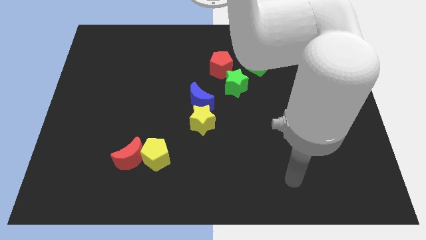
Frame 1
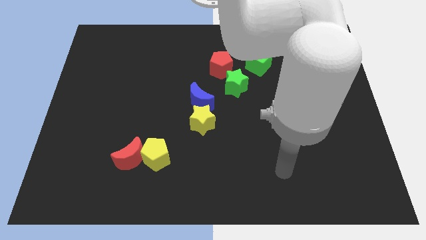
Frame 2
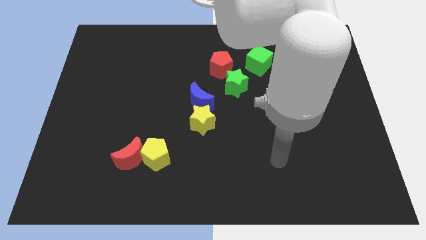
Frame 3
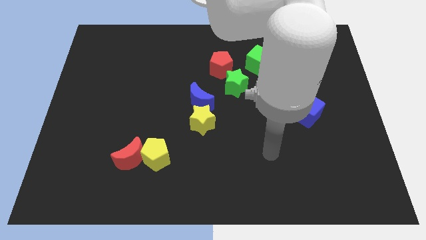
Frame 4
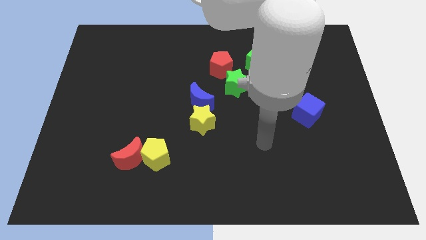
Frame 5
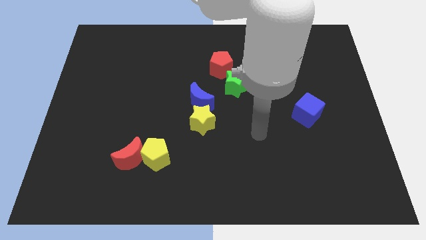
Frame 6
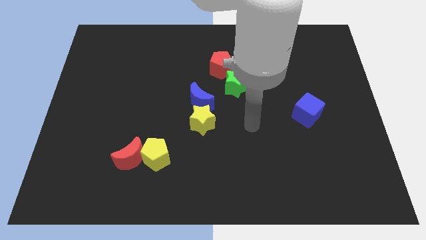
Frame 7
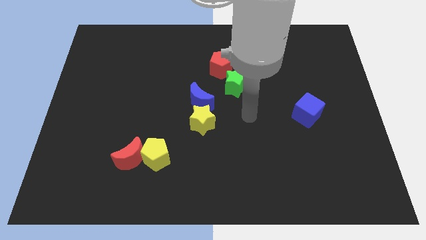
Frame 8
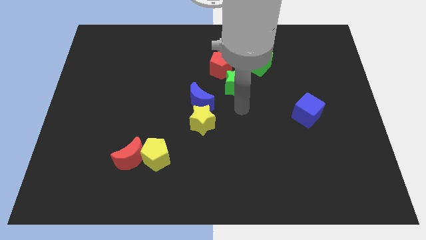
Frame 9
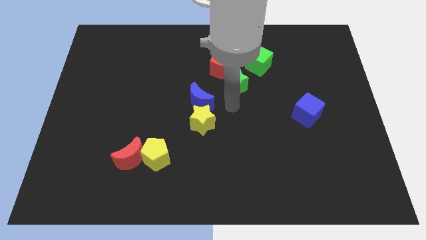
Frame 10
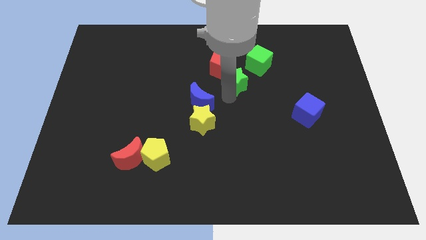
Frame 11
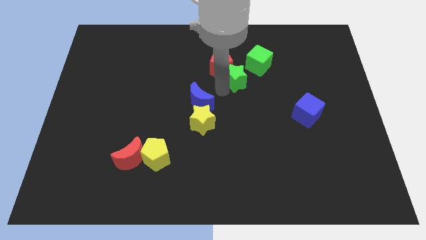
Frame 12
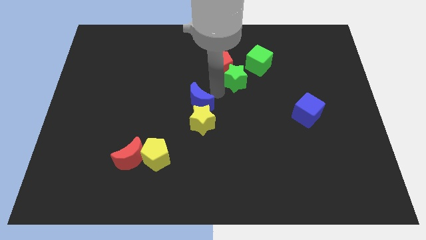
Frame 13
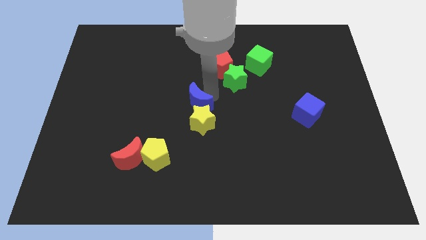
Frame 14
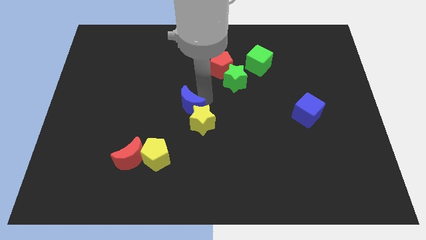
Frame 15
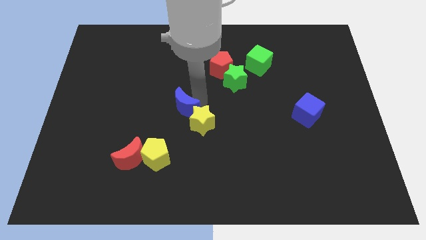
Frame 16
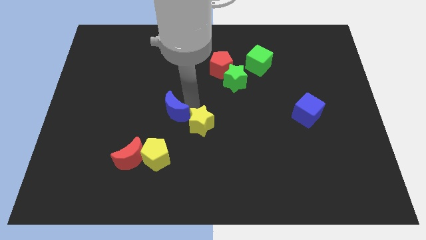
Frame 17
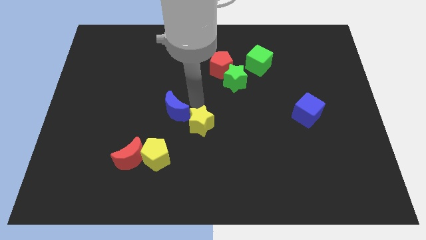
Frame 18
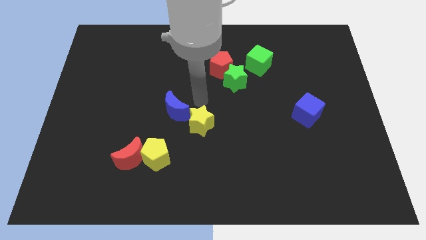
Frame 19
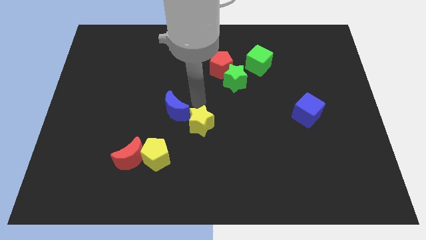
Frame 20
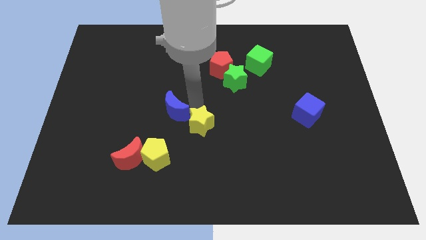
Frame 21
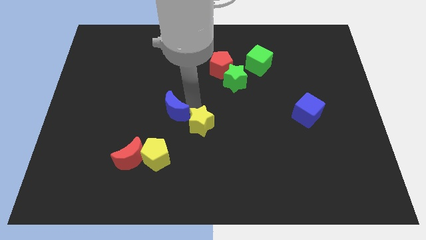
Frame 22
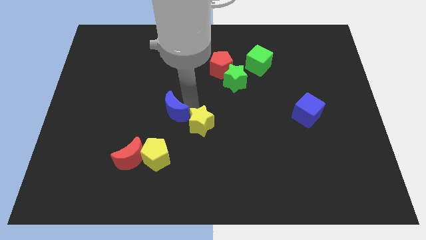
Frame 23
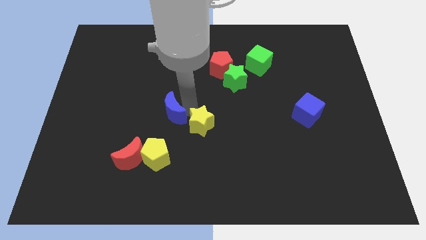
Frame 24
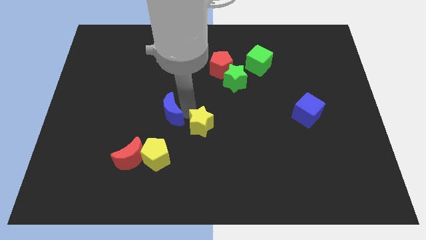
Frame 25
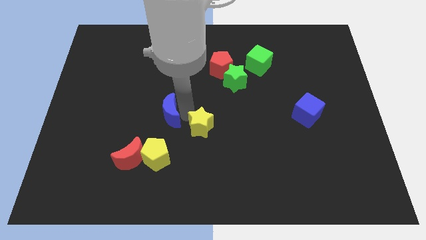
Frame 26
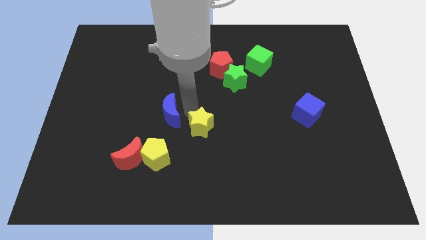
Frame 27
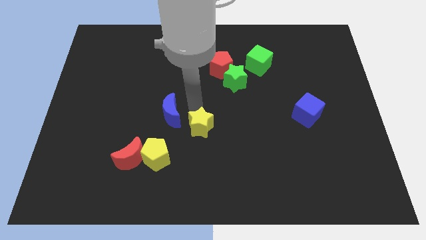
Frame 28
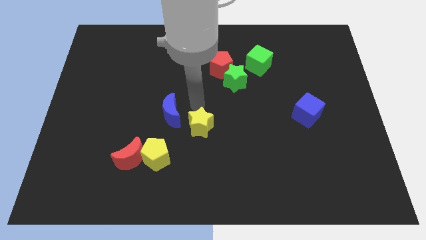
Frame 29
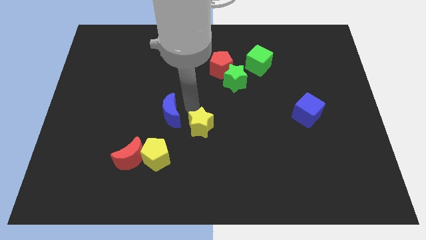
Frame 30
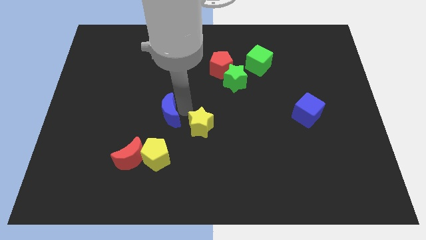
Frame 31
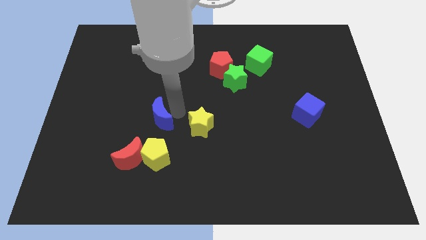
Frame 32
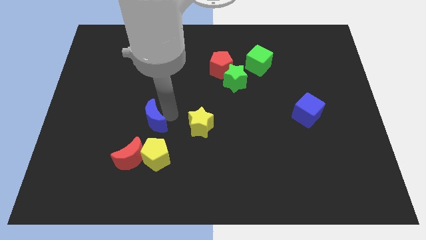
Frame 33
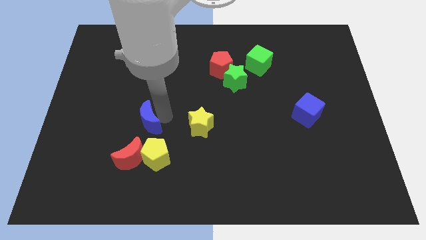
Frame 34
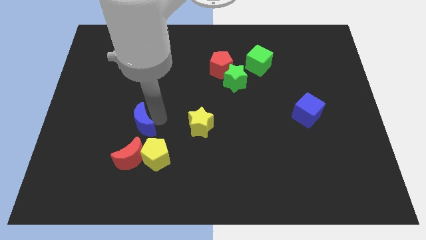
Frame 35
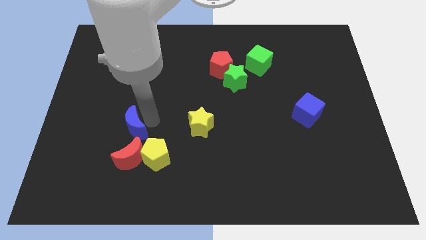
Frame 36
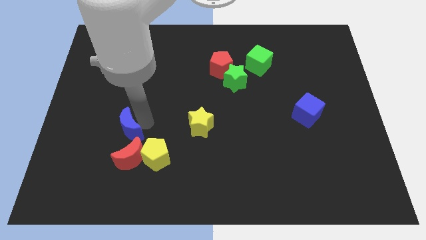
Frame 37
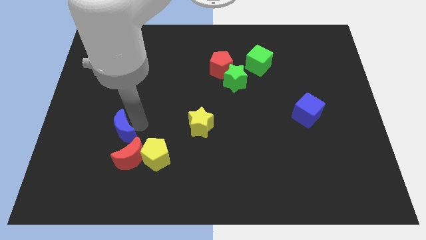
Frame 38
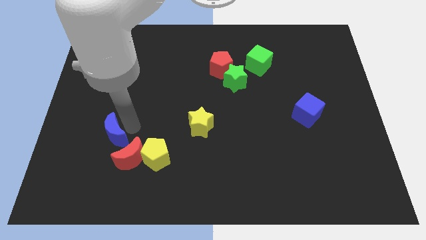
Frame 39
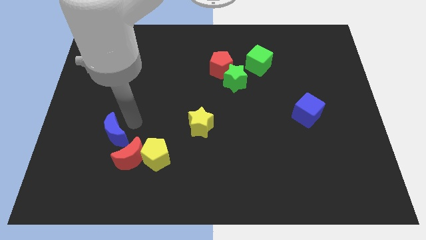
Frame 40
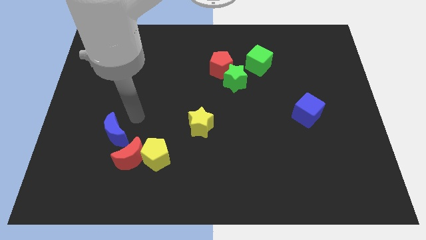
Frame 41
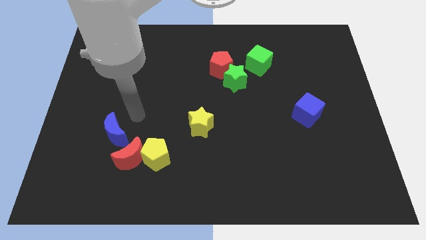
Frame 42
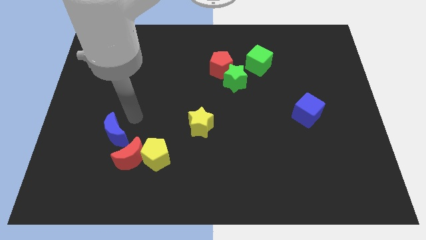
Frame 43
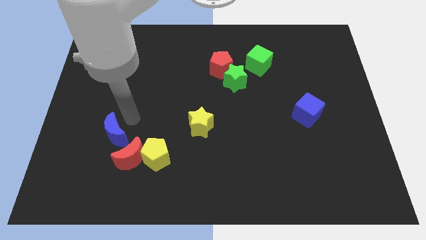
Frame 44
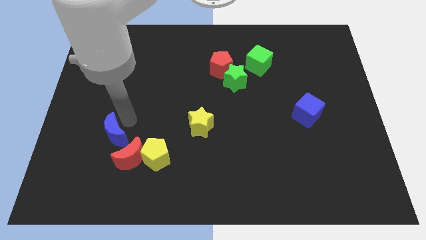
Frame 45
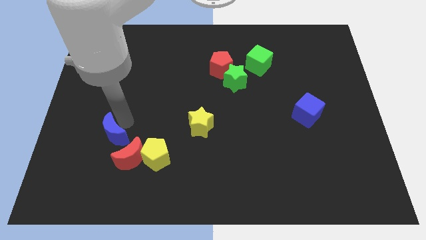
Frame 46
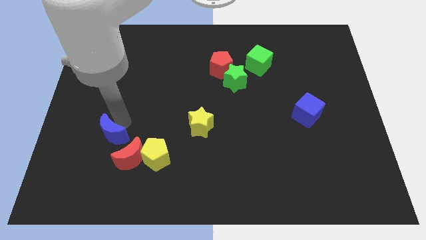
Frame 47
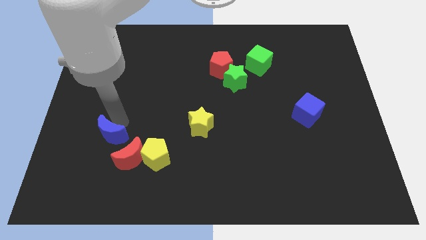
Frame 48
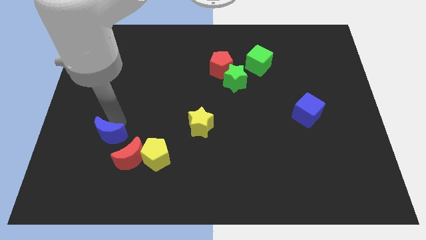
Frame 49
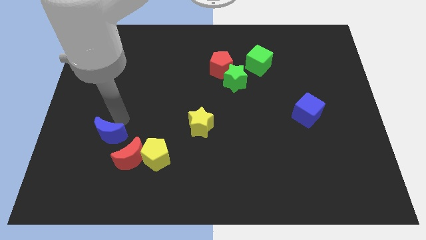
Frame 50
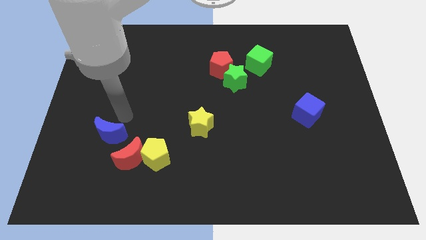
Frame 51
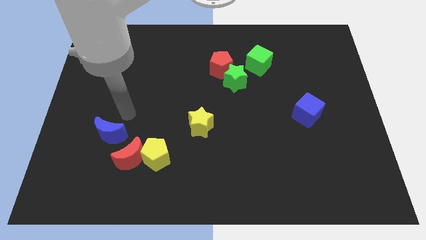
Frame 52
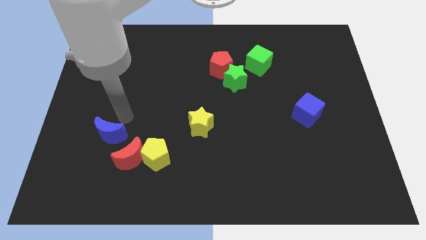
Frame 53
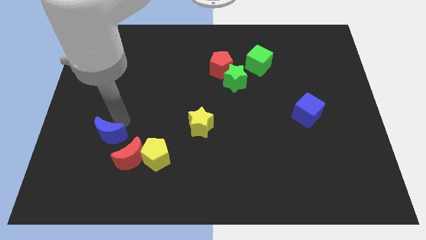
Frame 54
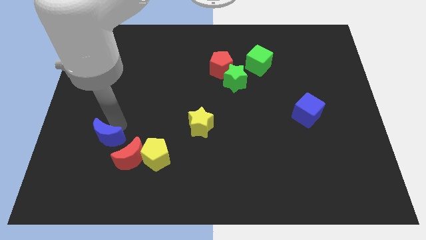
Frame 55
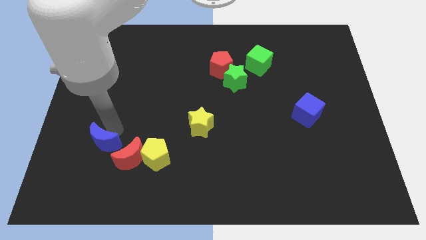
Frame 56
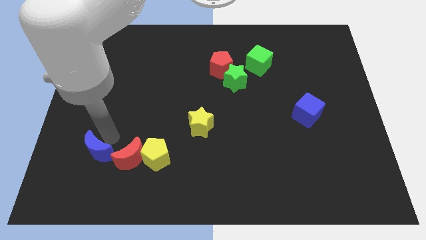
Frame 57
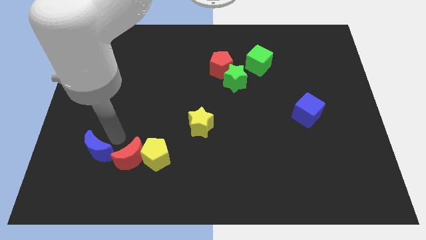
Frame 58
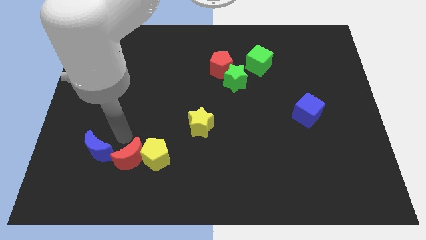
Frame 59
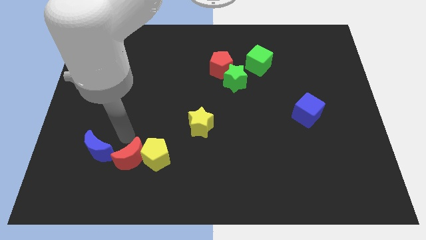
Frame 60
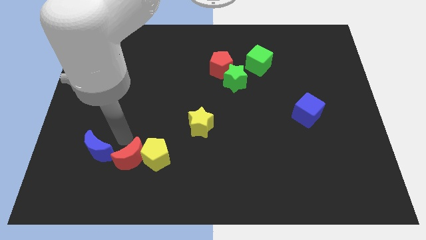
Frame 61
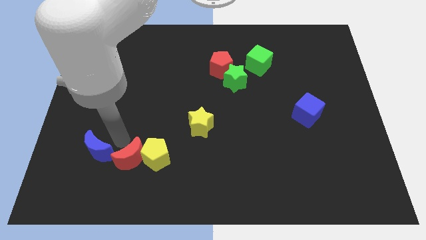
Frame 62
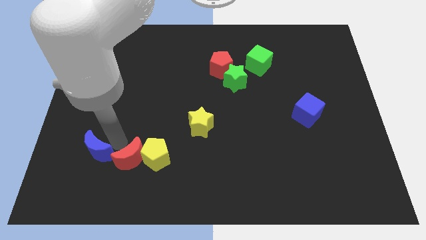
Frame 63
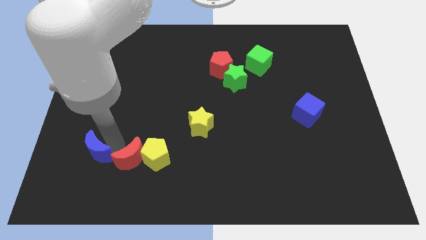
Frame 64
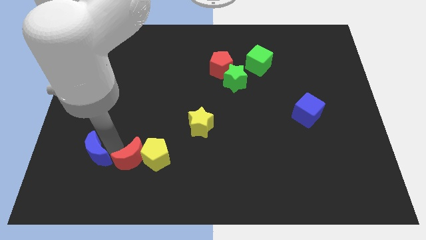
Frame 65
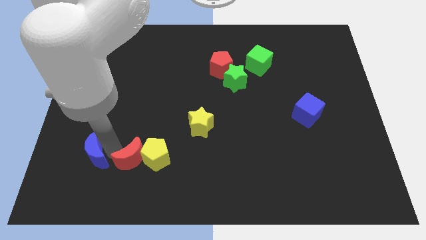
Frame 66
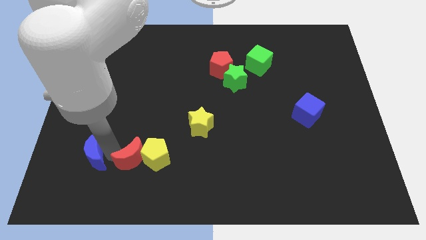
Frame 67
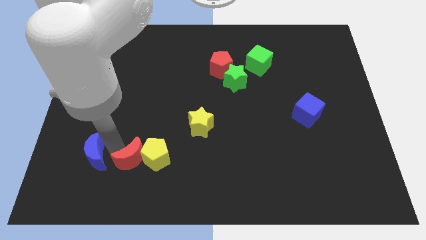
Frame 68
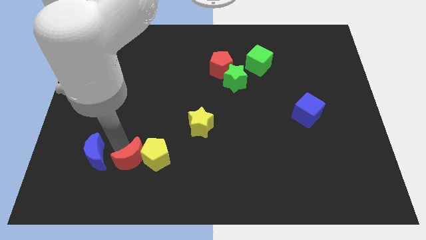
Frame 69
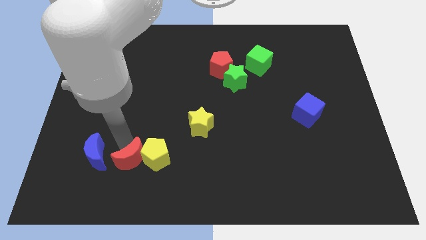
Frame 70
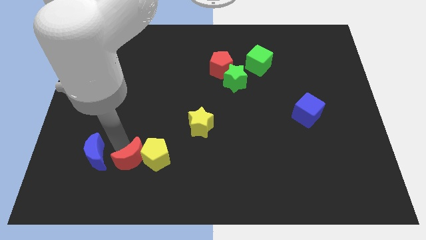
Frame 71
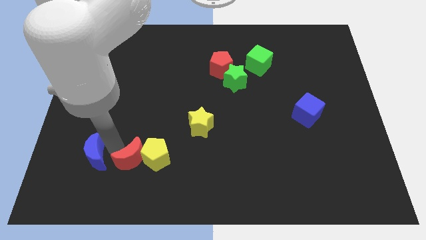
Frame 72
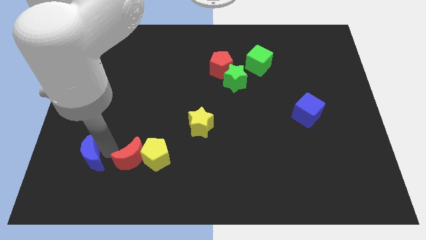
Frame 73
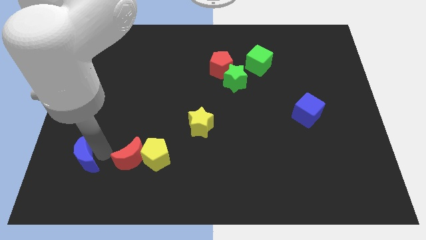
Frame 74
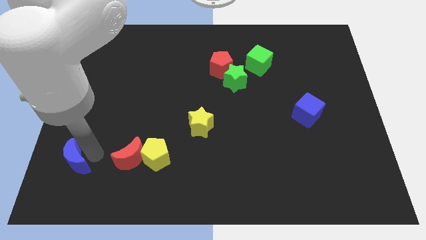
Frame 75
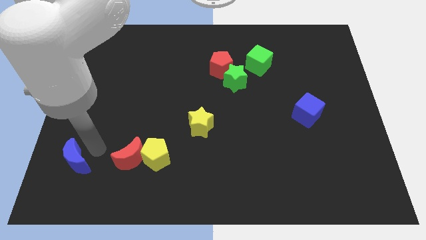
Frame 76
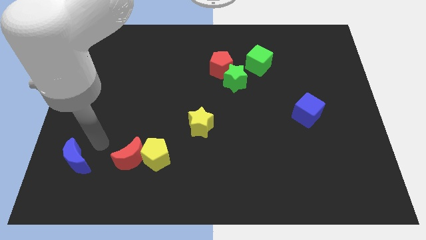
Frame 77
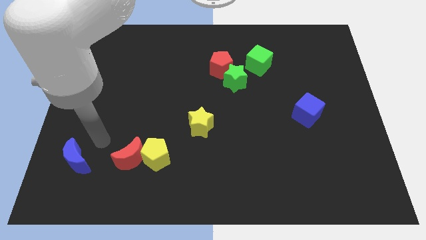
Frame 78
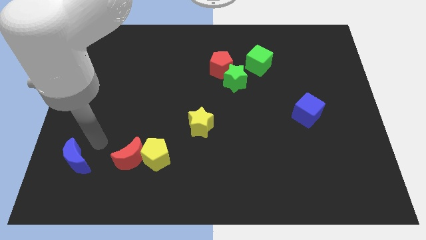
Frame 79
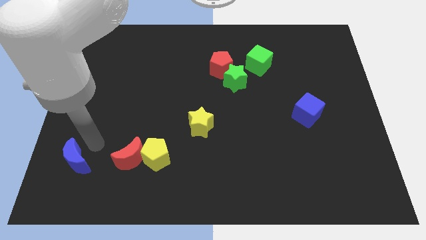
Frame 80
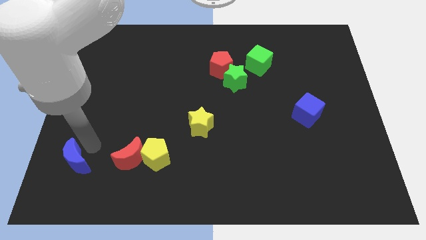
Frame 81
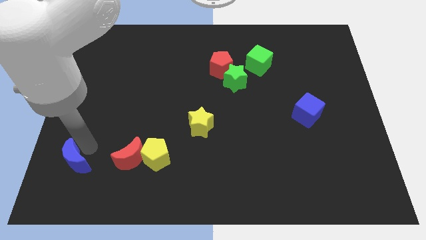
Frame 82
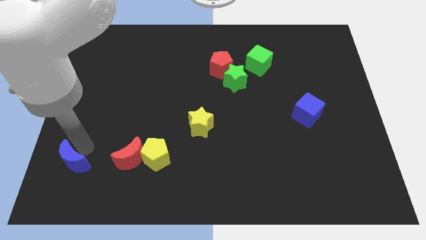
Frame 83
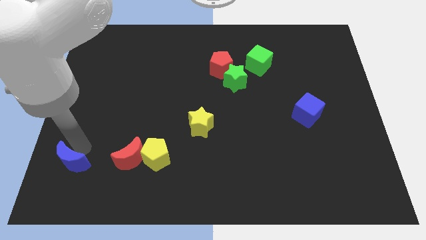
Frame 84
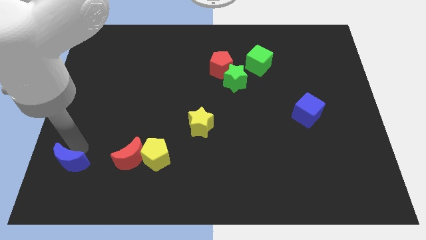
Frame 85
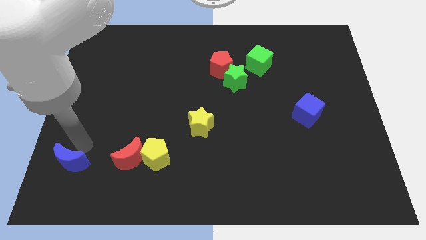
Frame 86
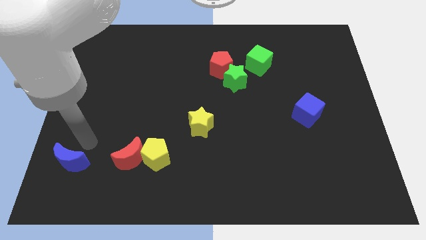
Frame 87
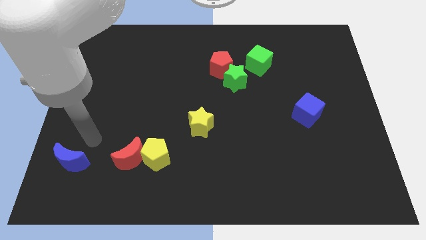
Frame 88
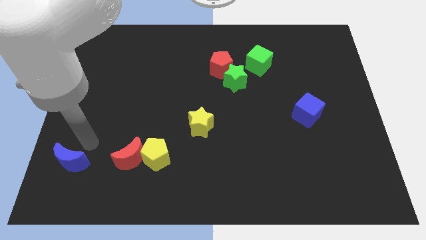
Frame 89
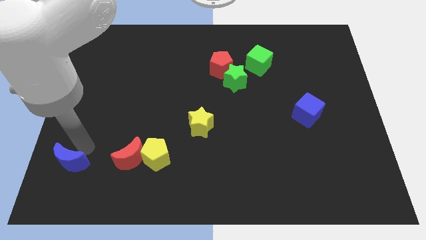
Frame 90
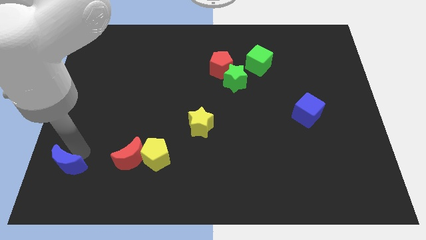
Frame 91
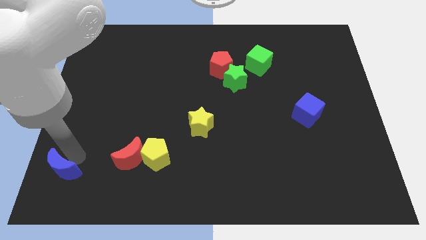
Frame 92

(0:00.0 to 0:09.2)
slide the blue moon to the bottom left of the board
